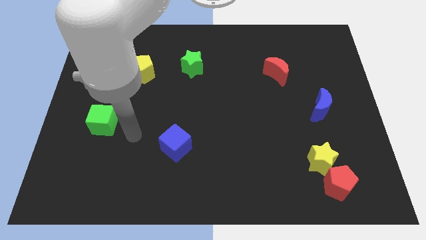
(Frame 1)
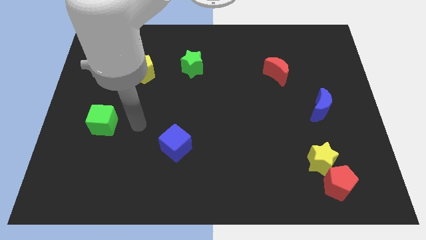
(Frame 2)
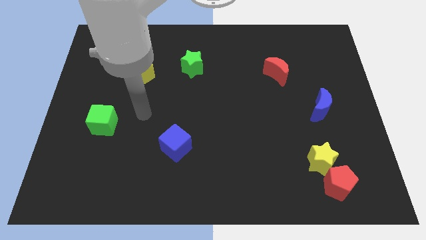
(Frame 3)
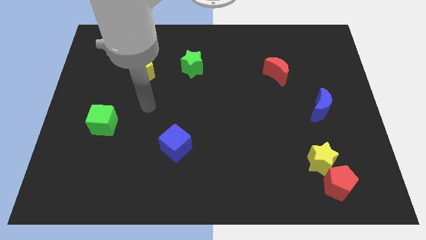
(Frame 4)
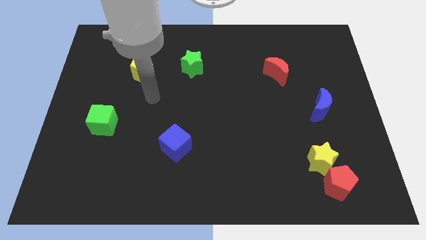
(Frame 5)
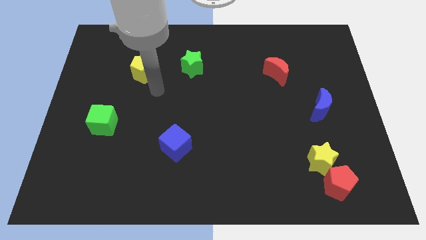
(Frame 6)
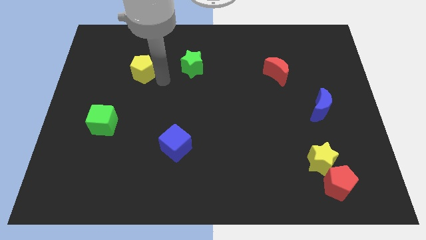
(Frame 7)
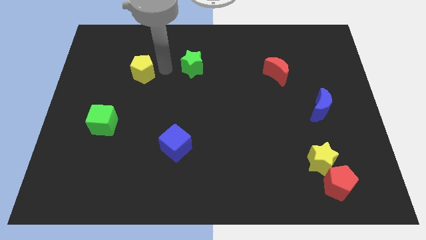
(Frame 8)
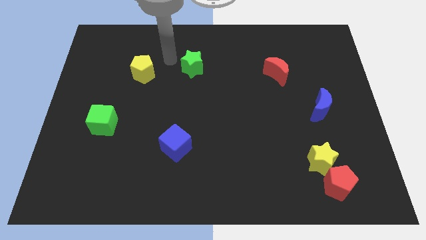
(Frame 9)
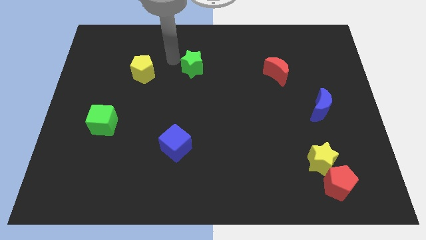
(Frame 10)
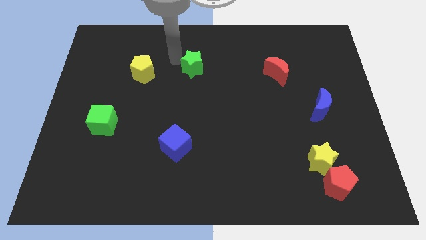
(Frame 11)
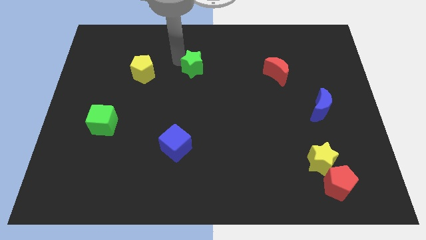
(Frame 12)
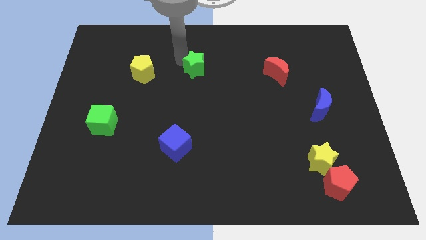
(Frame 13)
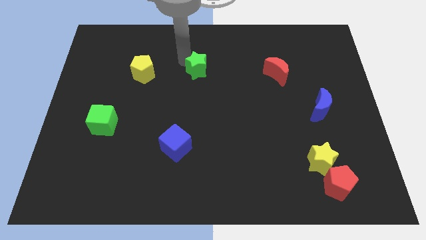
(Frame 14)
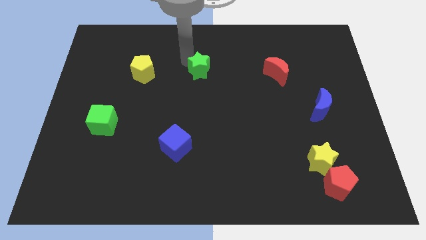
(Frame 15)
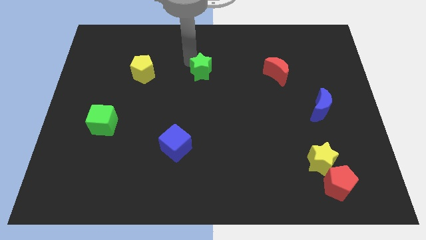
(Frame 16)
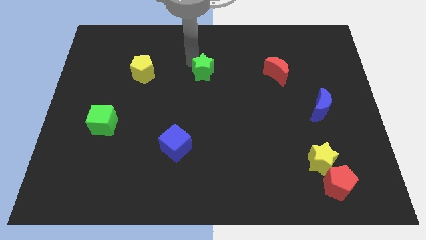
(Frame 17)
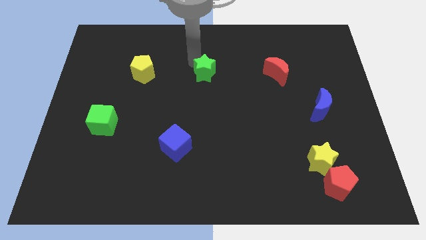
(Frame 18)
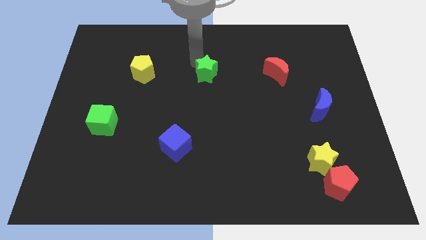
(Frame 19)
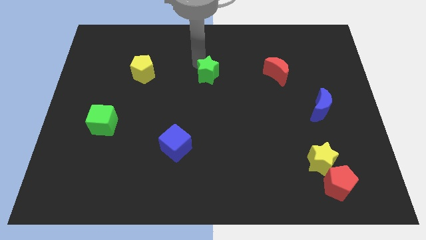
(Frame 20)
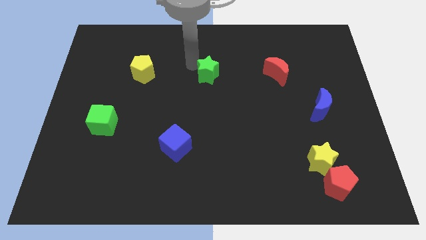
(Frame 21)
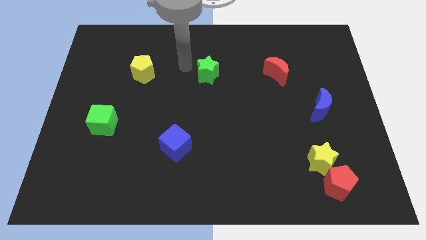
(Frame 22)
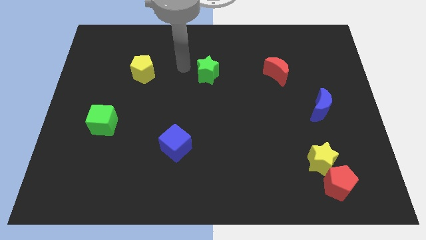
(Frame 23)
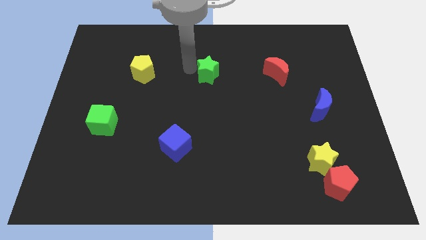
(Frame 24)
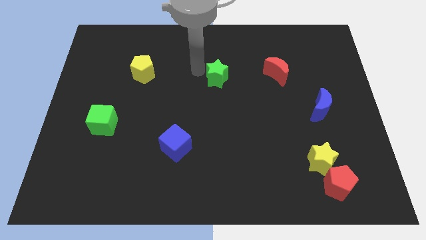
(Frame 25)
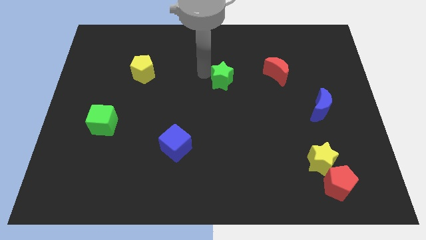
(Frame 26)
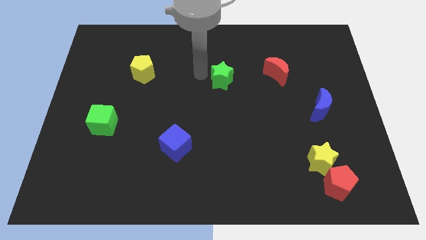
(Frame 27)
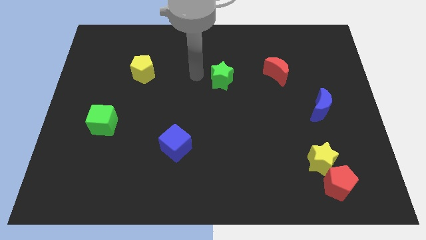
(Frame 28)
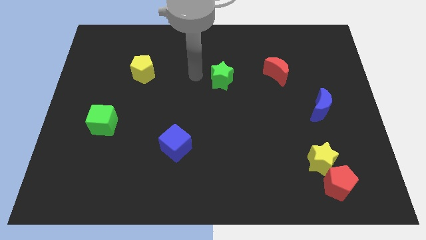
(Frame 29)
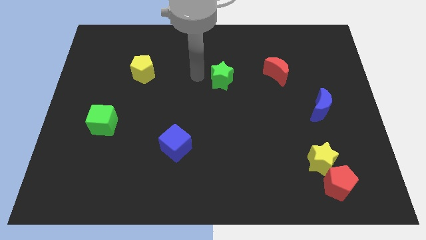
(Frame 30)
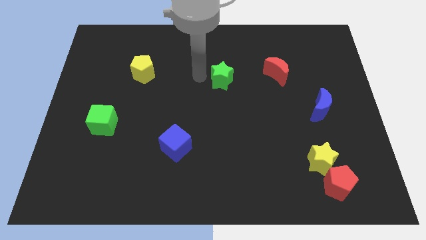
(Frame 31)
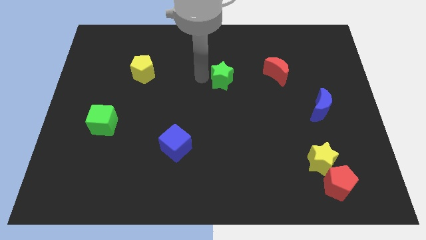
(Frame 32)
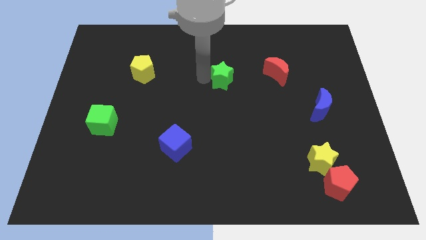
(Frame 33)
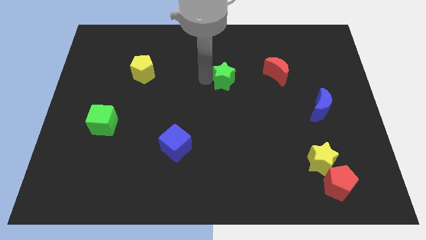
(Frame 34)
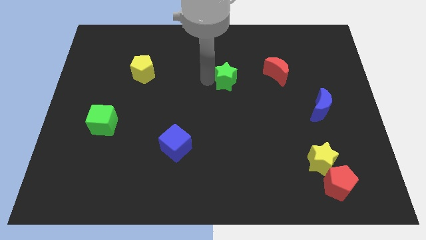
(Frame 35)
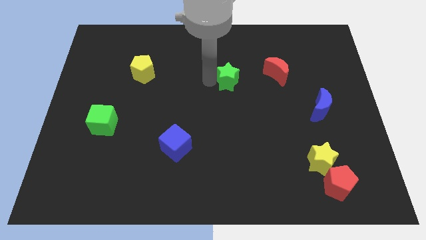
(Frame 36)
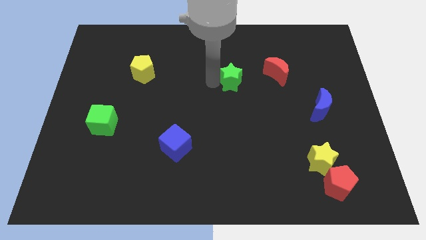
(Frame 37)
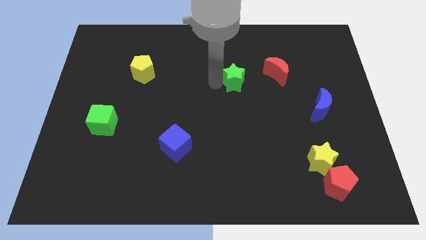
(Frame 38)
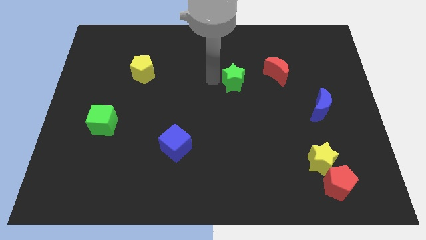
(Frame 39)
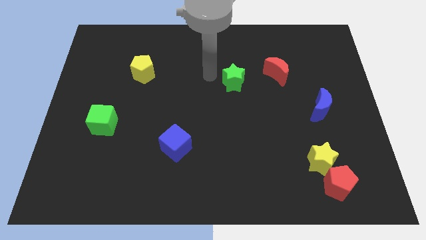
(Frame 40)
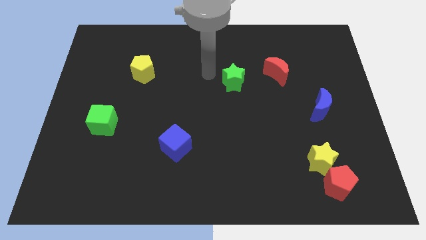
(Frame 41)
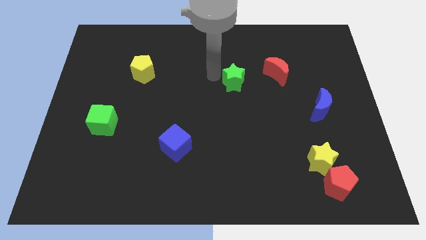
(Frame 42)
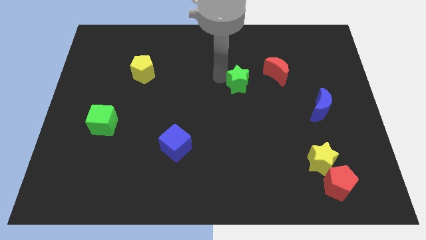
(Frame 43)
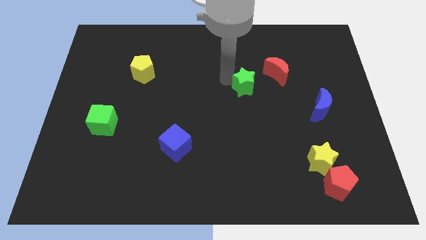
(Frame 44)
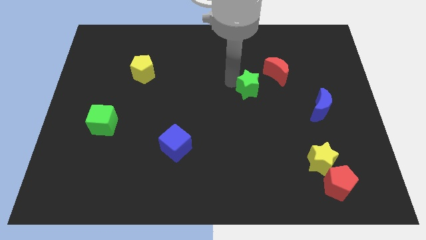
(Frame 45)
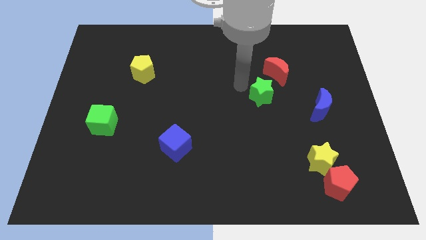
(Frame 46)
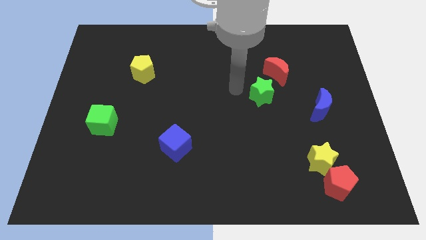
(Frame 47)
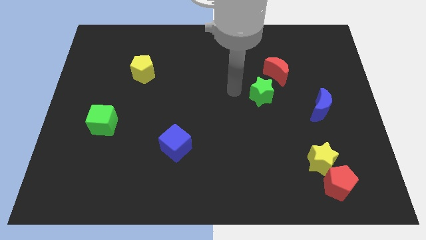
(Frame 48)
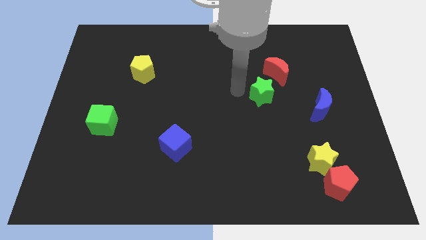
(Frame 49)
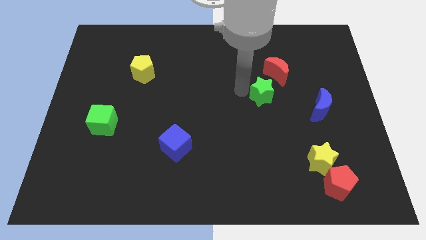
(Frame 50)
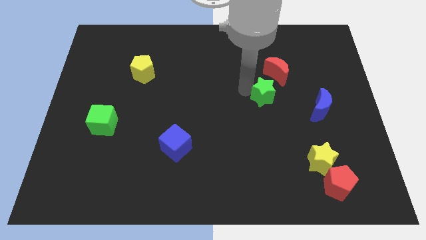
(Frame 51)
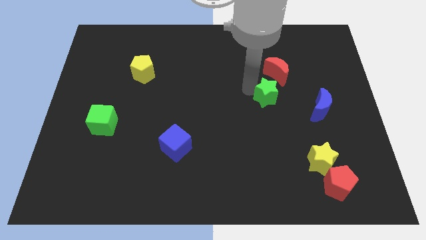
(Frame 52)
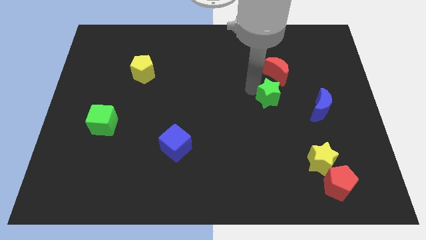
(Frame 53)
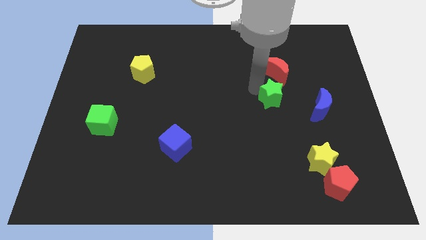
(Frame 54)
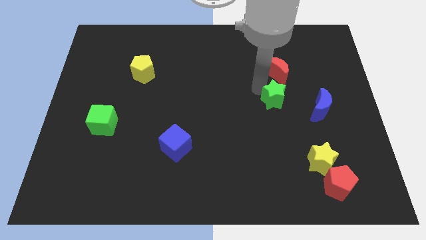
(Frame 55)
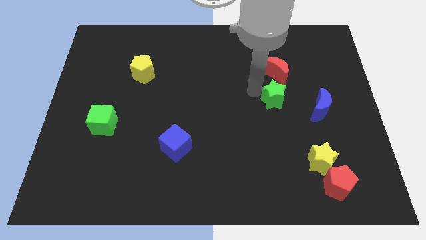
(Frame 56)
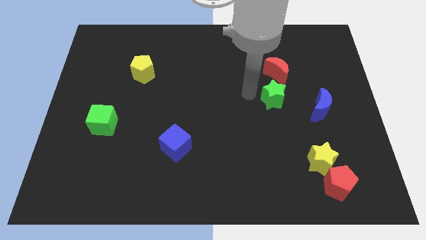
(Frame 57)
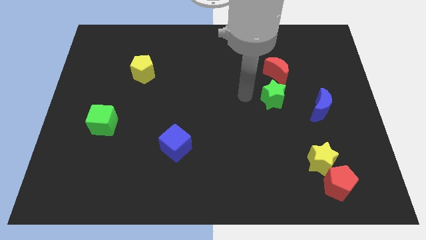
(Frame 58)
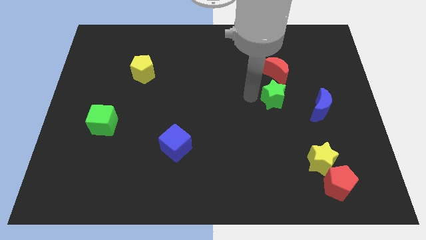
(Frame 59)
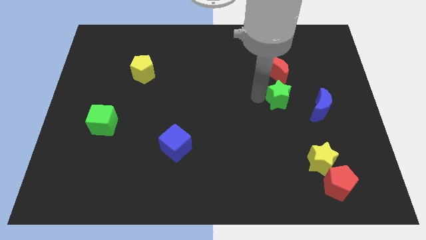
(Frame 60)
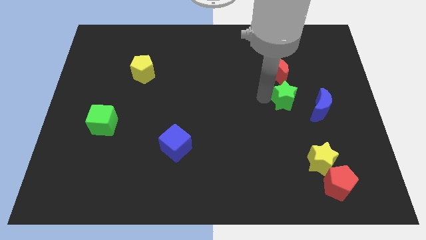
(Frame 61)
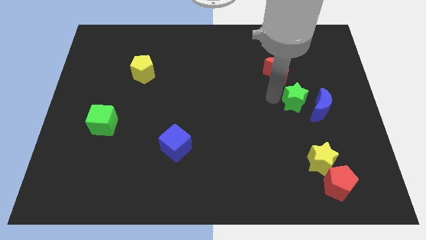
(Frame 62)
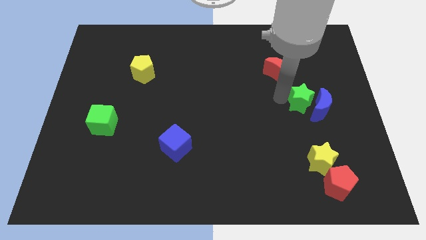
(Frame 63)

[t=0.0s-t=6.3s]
slide the green star to the blue moon

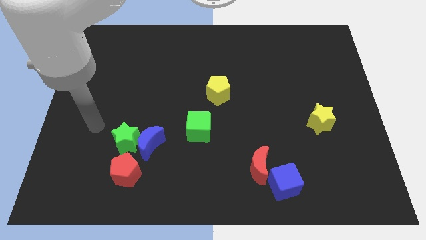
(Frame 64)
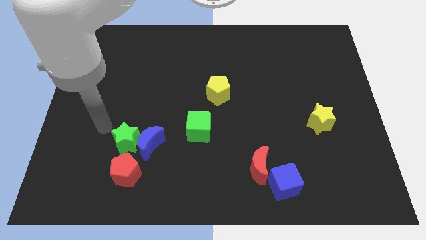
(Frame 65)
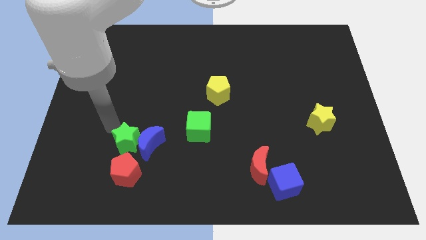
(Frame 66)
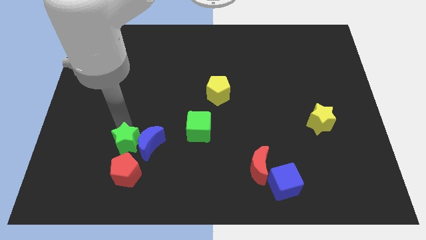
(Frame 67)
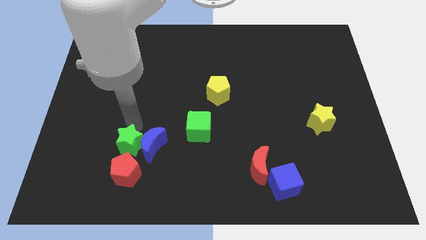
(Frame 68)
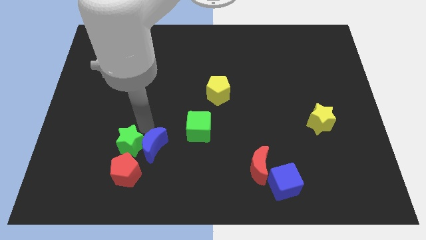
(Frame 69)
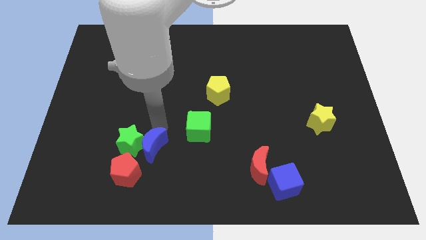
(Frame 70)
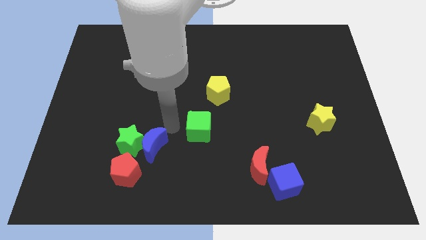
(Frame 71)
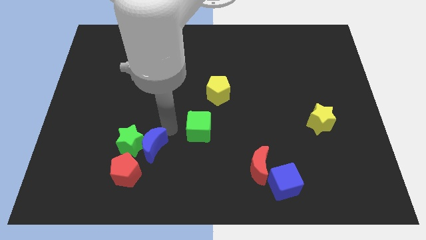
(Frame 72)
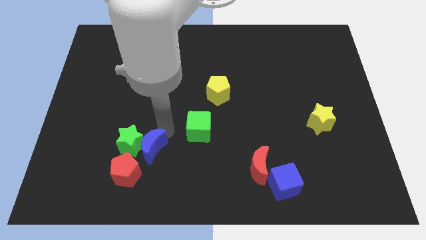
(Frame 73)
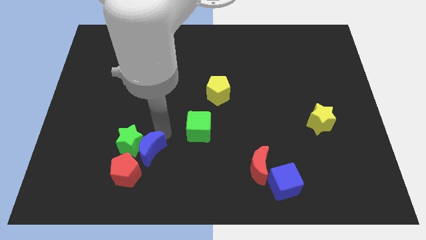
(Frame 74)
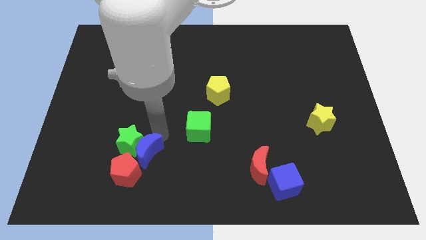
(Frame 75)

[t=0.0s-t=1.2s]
move the blue moon to the red pentagon
